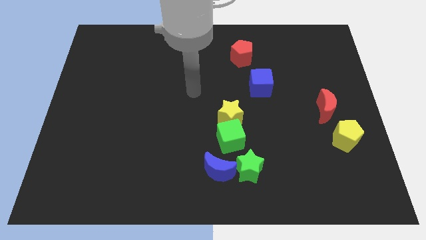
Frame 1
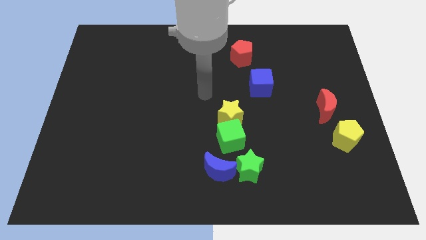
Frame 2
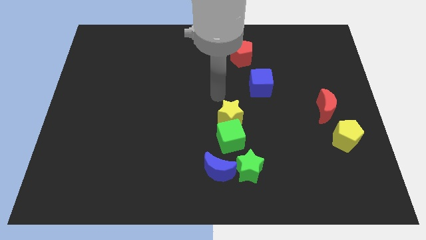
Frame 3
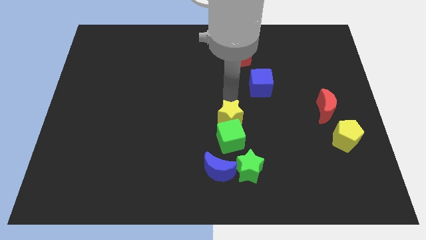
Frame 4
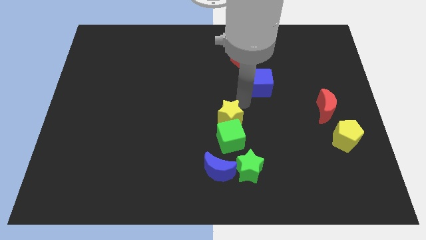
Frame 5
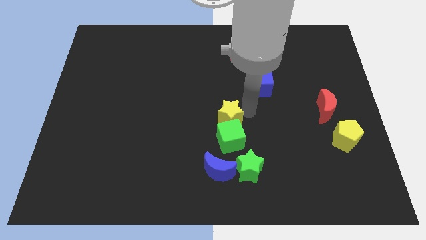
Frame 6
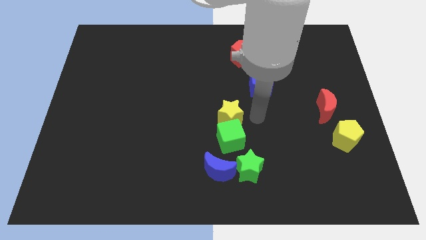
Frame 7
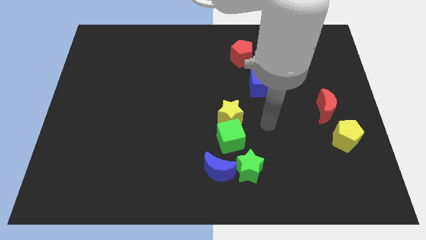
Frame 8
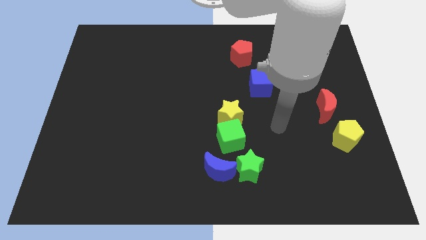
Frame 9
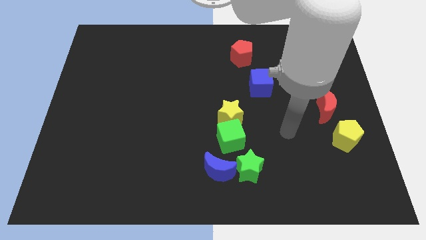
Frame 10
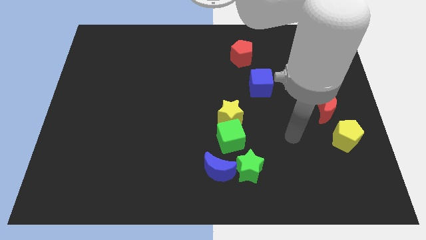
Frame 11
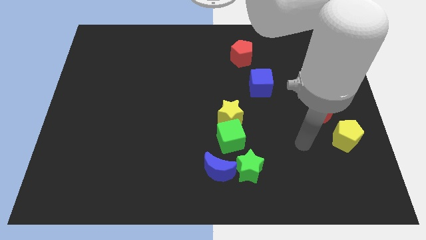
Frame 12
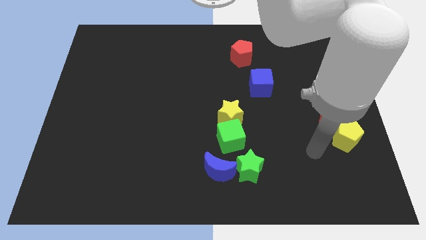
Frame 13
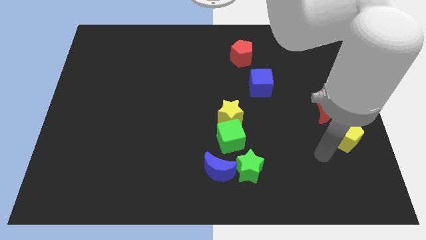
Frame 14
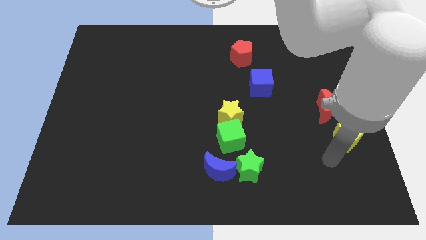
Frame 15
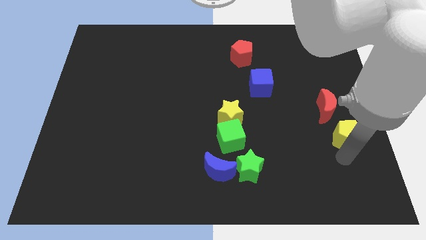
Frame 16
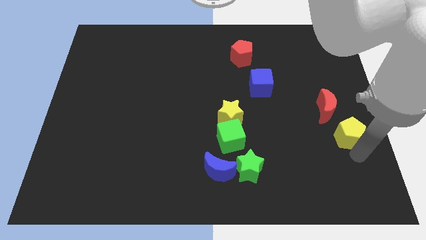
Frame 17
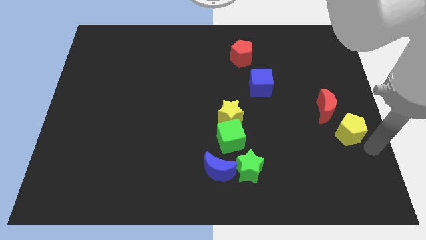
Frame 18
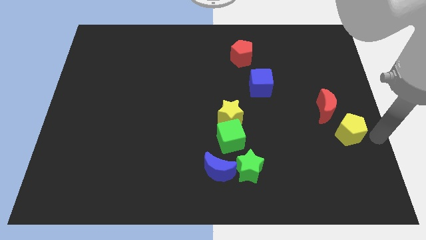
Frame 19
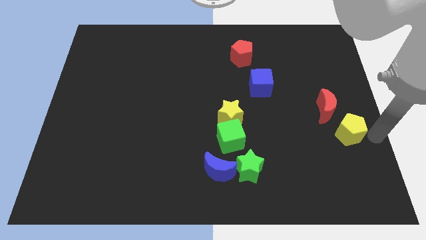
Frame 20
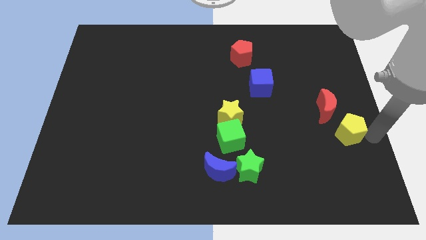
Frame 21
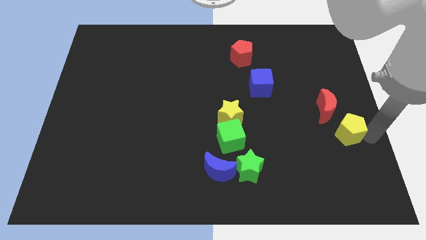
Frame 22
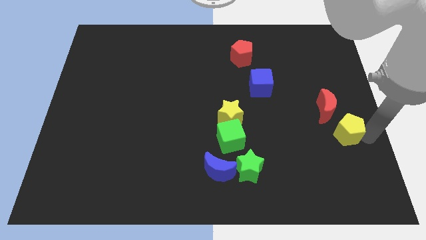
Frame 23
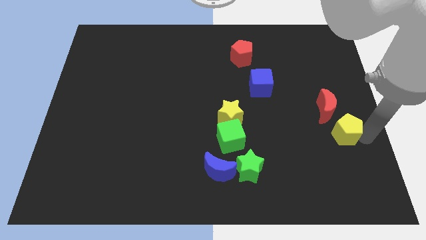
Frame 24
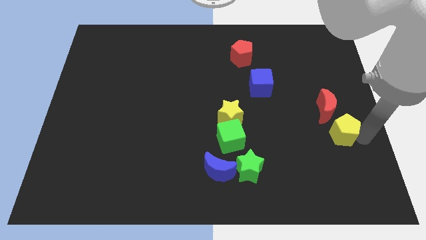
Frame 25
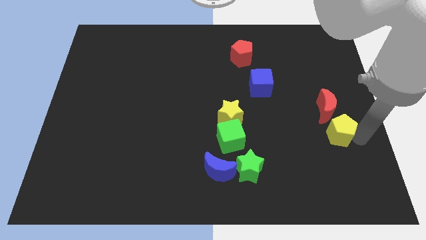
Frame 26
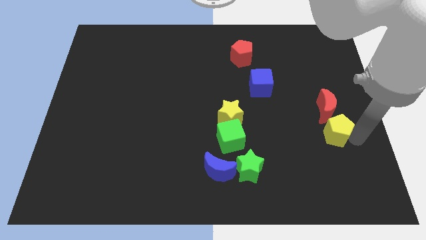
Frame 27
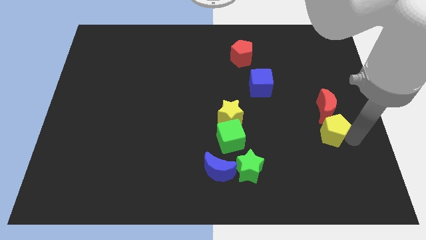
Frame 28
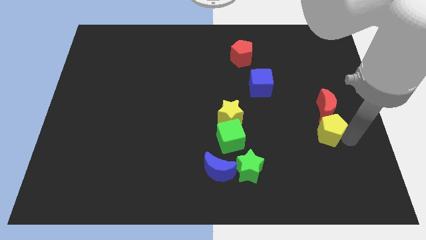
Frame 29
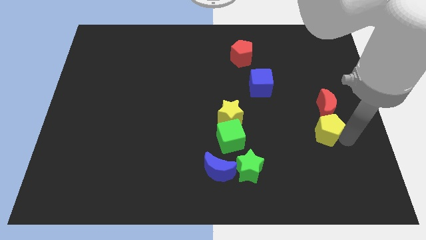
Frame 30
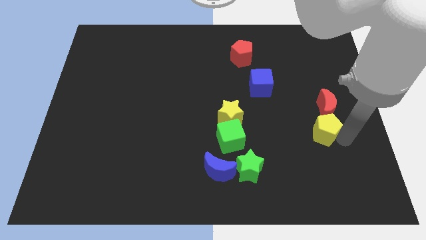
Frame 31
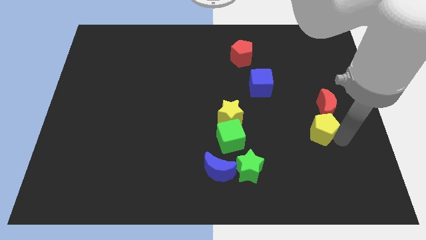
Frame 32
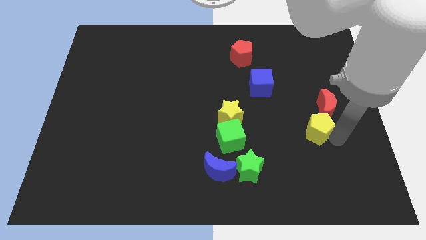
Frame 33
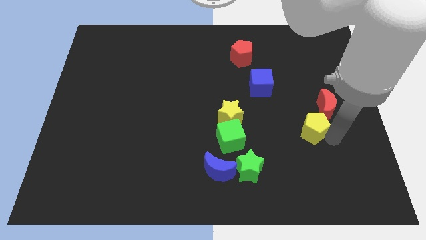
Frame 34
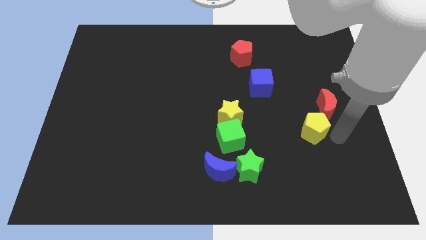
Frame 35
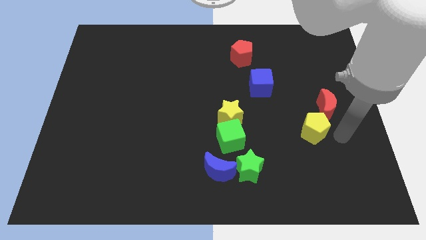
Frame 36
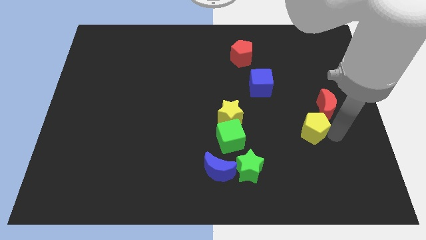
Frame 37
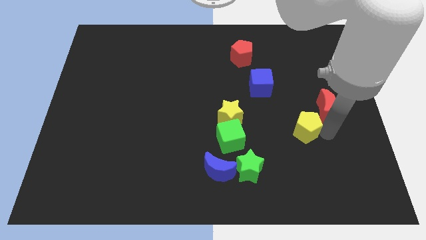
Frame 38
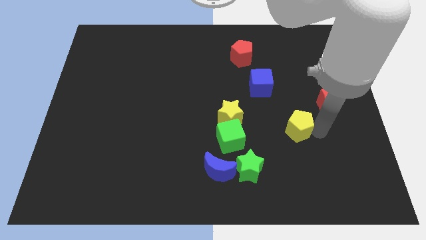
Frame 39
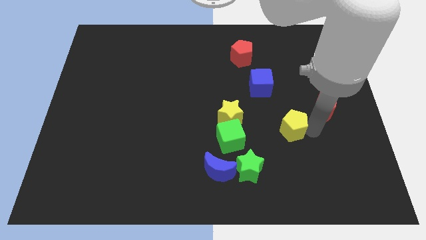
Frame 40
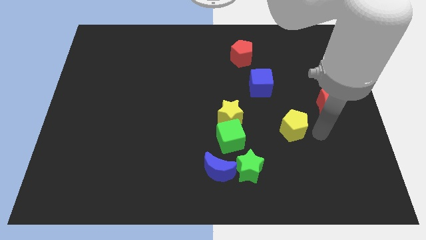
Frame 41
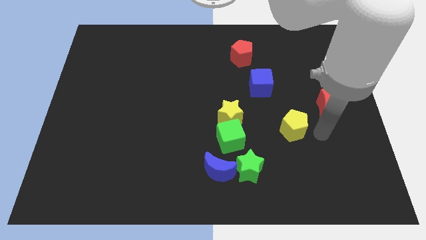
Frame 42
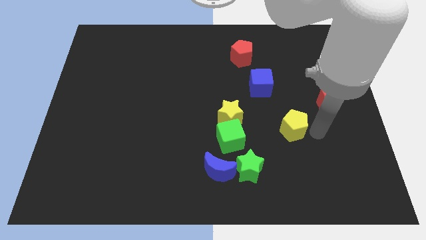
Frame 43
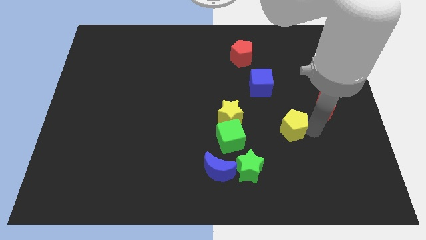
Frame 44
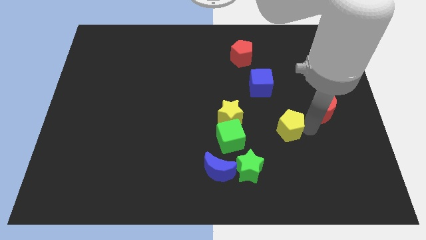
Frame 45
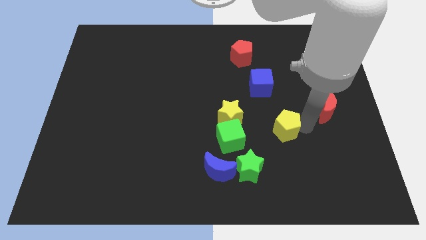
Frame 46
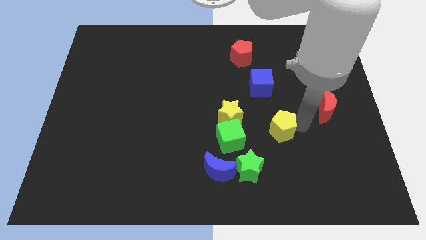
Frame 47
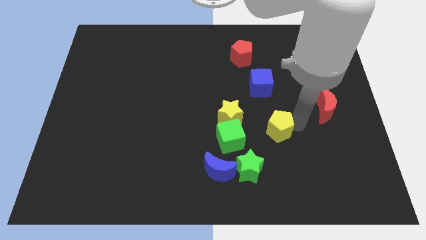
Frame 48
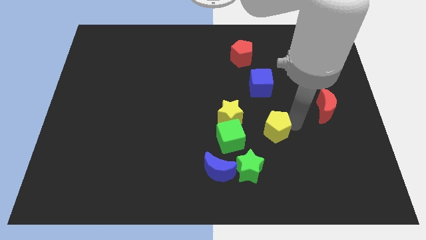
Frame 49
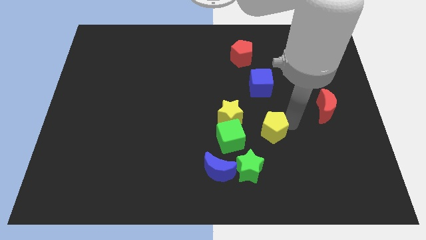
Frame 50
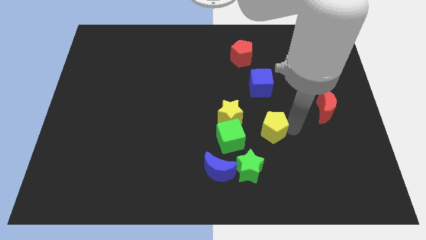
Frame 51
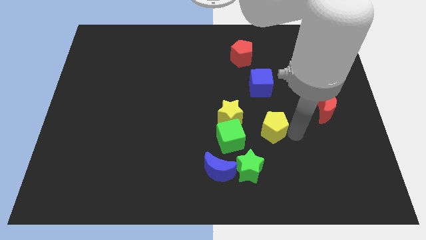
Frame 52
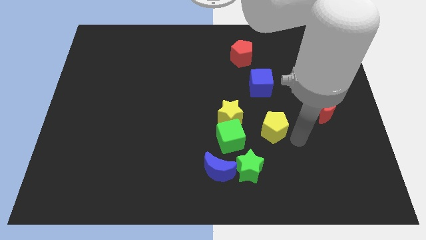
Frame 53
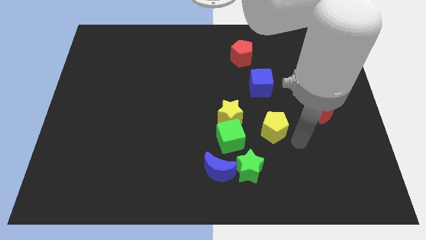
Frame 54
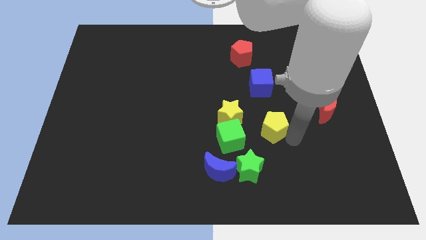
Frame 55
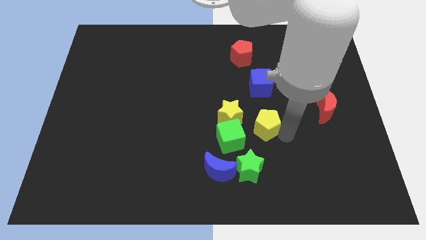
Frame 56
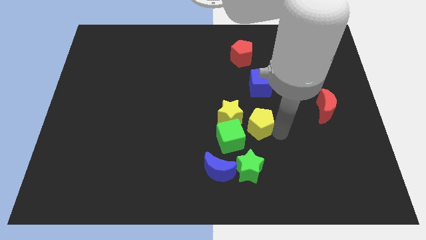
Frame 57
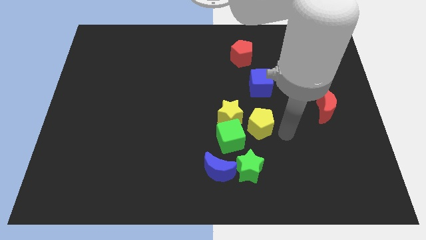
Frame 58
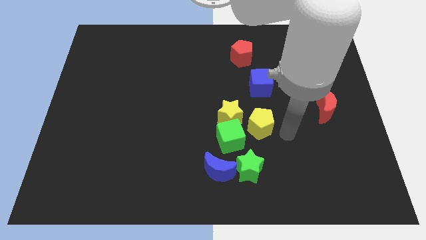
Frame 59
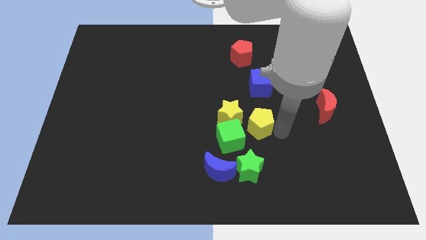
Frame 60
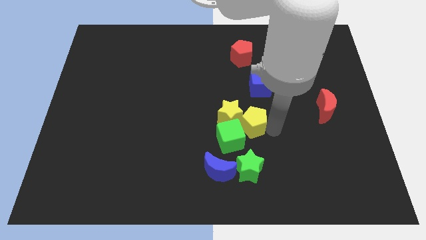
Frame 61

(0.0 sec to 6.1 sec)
push the yellow pentagon close to the yellow star

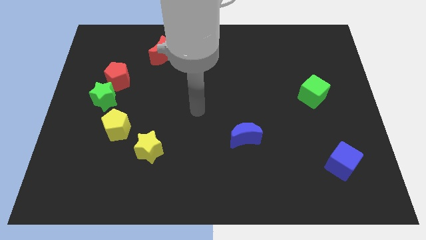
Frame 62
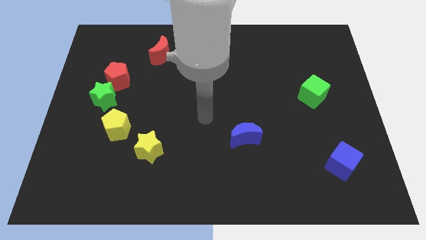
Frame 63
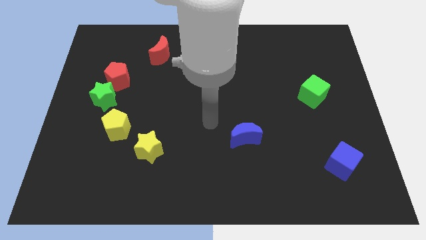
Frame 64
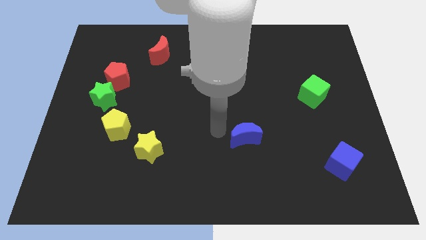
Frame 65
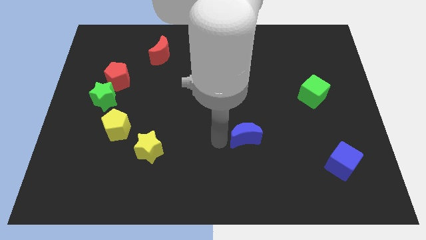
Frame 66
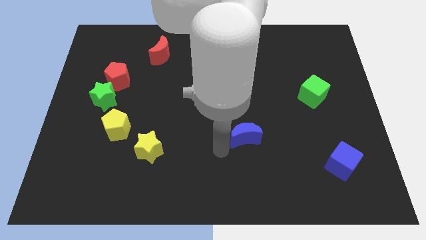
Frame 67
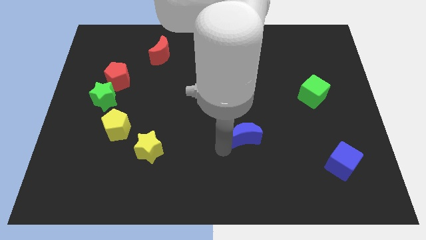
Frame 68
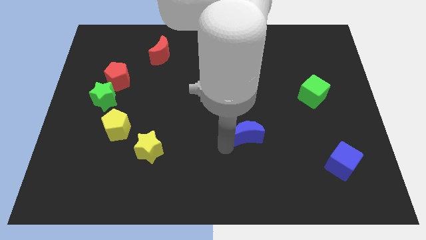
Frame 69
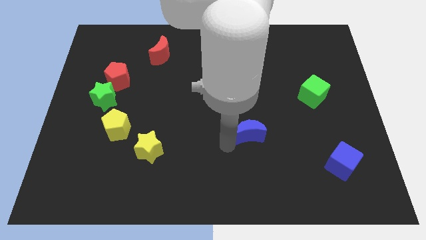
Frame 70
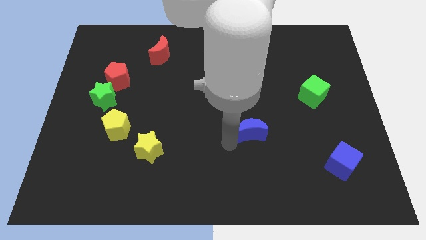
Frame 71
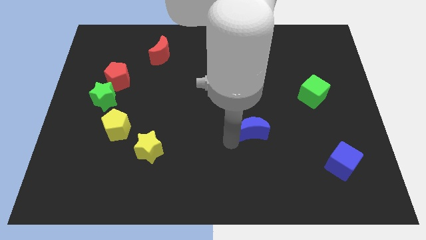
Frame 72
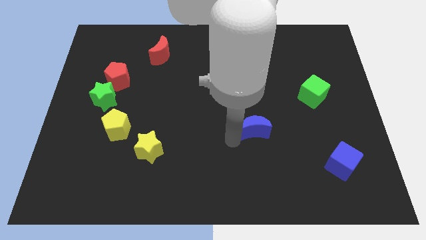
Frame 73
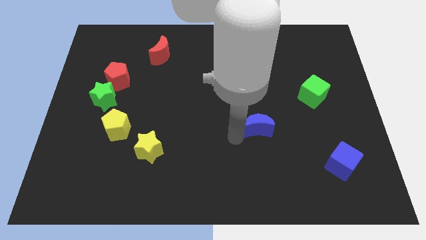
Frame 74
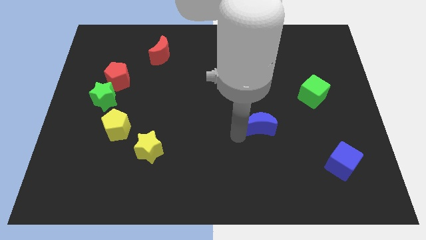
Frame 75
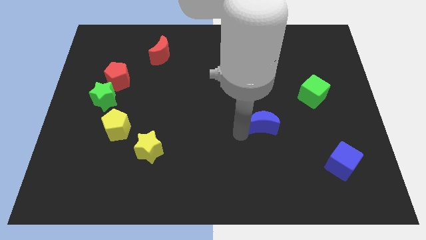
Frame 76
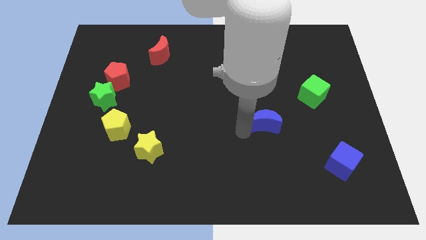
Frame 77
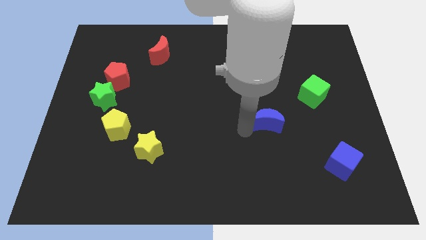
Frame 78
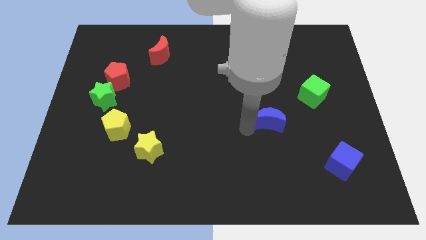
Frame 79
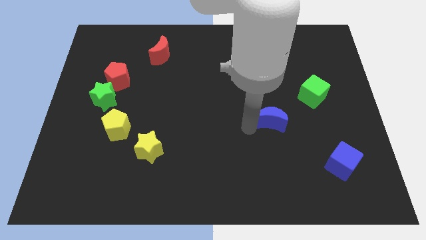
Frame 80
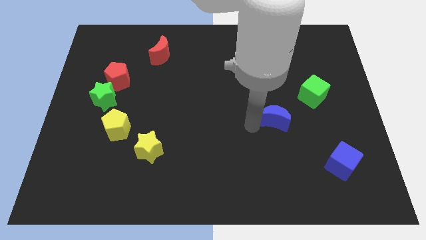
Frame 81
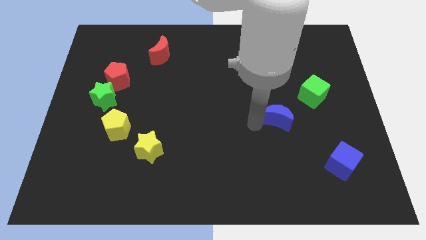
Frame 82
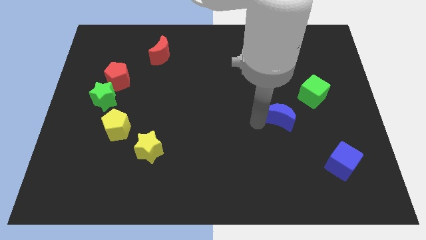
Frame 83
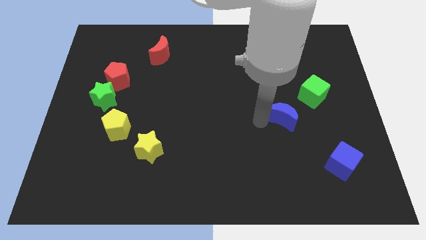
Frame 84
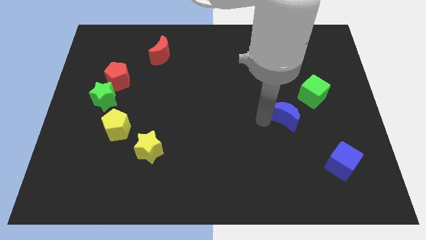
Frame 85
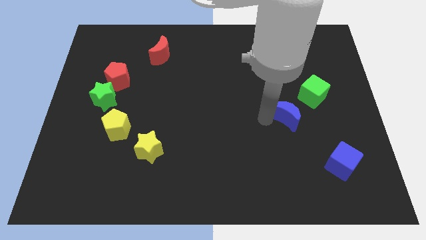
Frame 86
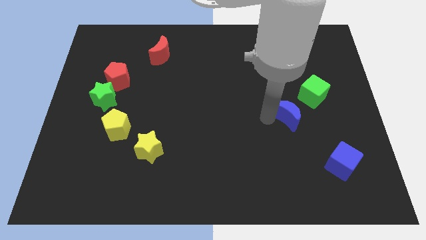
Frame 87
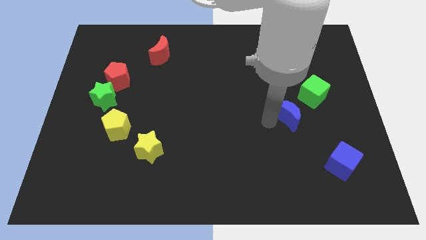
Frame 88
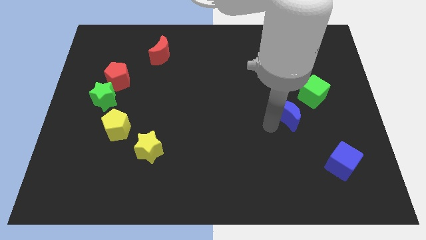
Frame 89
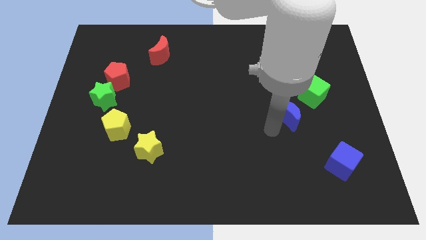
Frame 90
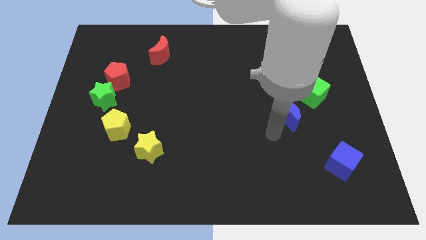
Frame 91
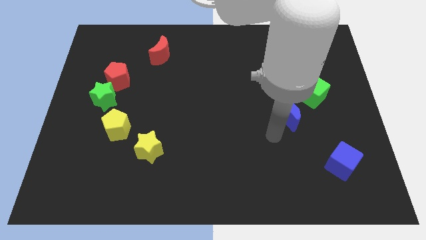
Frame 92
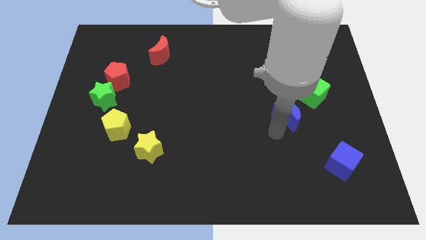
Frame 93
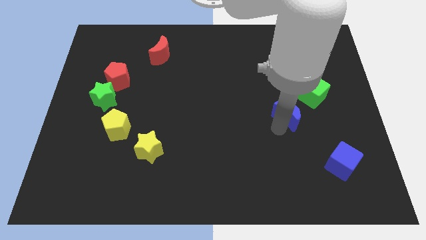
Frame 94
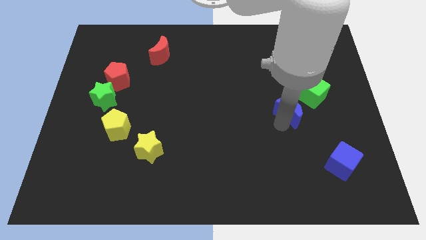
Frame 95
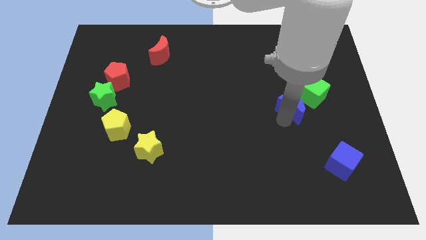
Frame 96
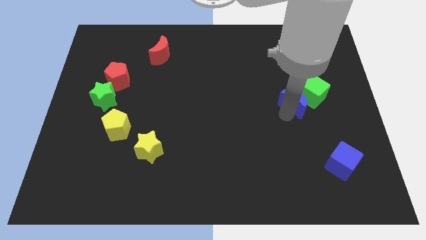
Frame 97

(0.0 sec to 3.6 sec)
push the blue moon towards the green cube
